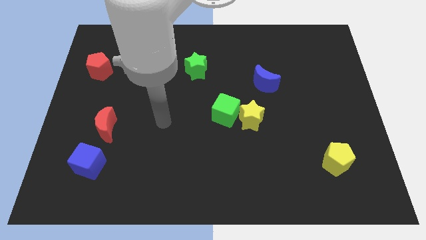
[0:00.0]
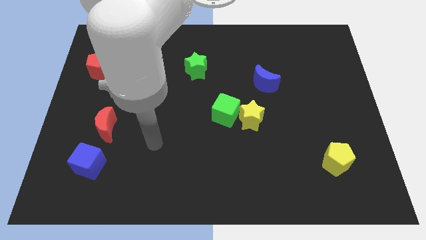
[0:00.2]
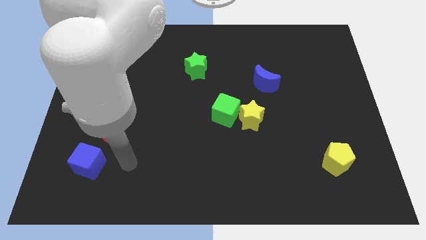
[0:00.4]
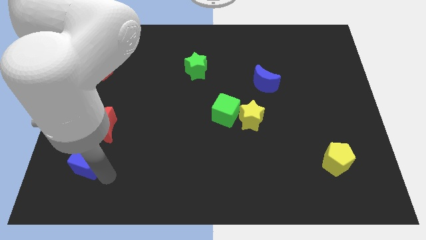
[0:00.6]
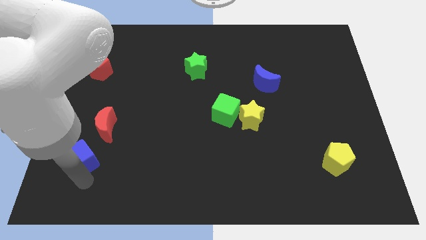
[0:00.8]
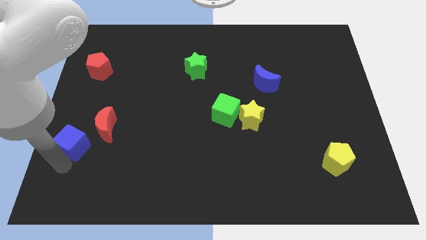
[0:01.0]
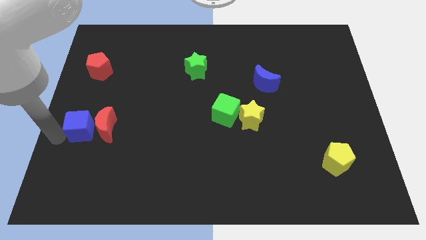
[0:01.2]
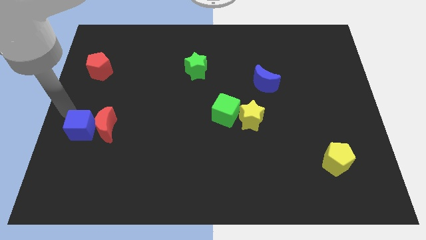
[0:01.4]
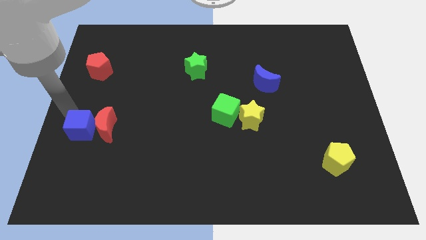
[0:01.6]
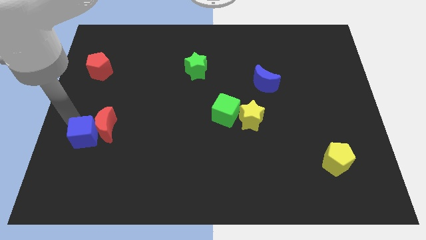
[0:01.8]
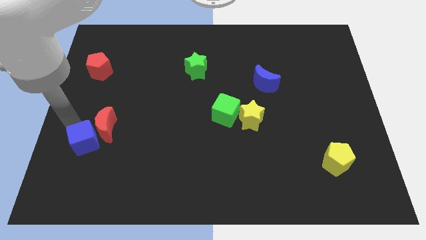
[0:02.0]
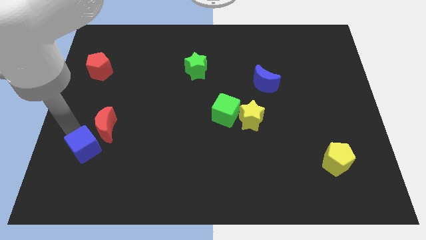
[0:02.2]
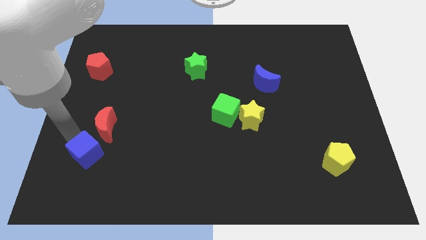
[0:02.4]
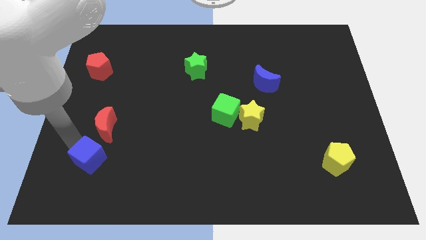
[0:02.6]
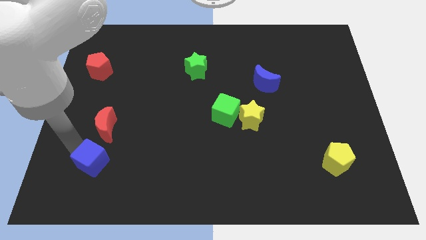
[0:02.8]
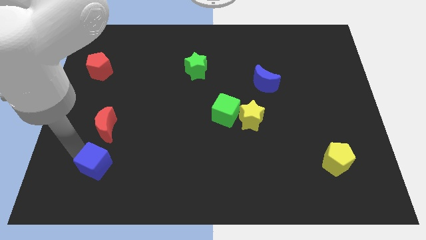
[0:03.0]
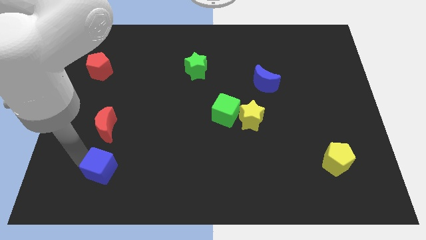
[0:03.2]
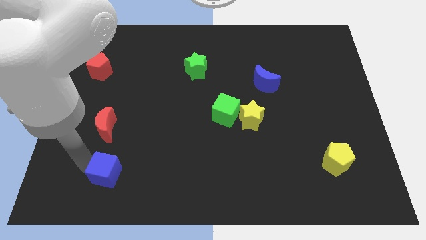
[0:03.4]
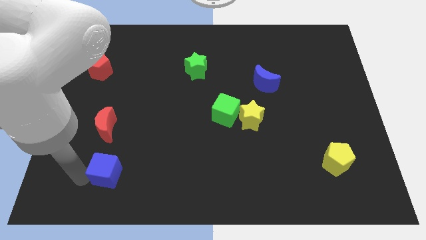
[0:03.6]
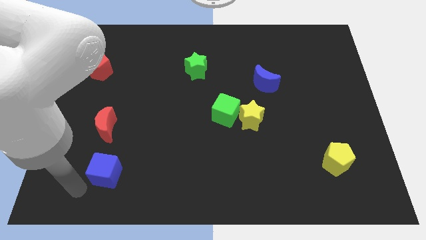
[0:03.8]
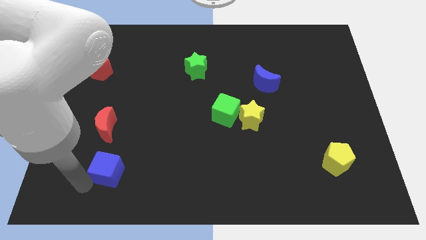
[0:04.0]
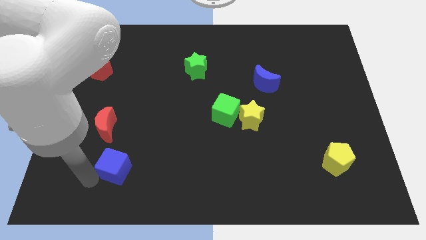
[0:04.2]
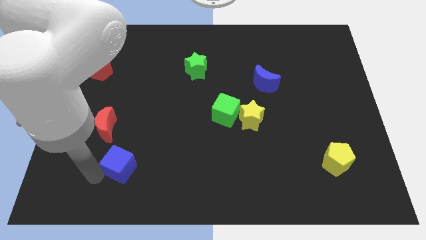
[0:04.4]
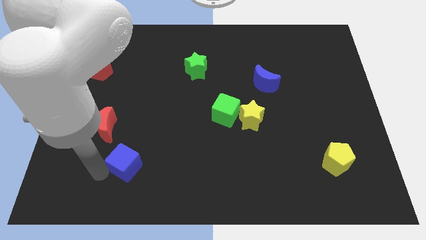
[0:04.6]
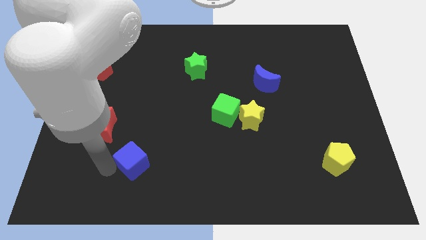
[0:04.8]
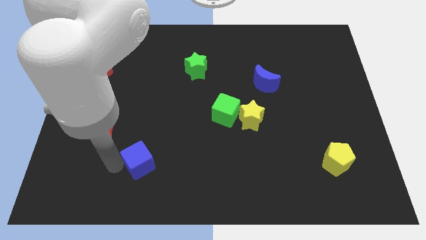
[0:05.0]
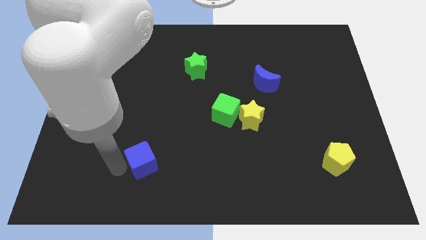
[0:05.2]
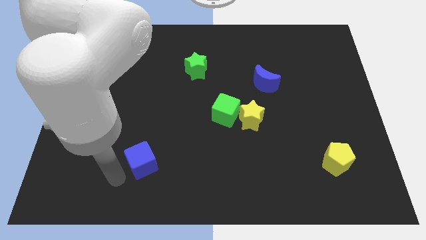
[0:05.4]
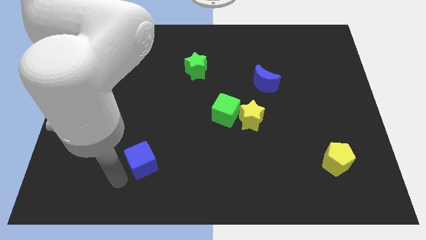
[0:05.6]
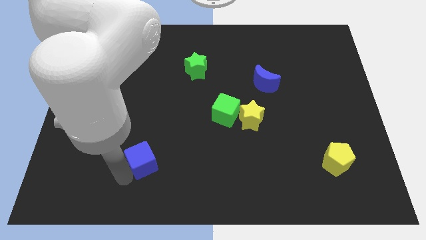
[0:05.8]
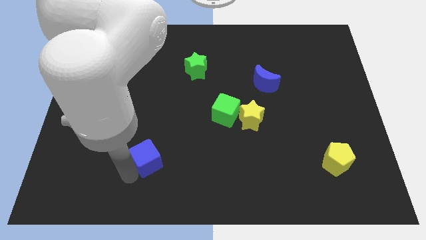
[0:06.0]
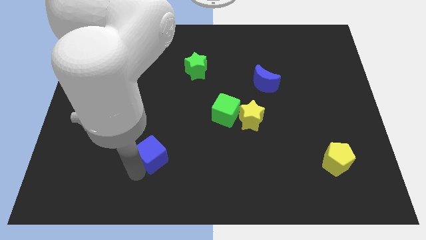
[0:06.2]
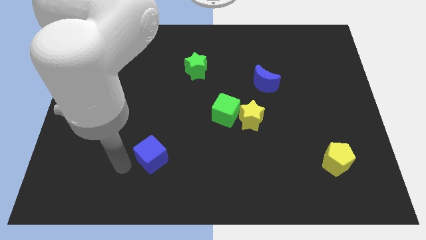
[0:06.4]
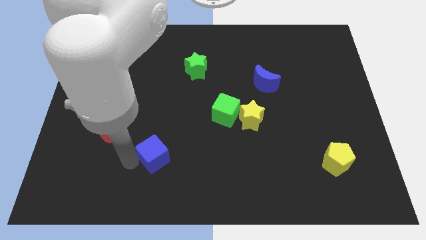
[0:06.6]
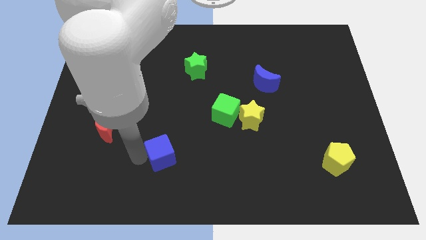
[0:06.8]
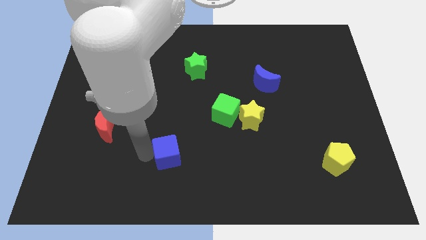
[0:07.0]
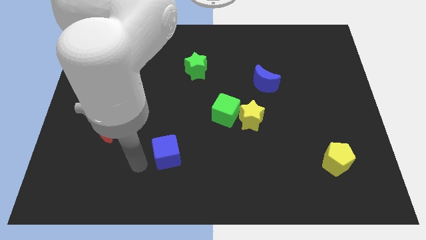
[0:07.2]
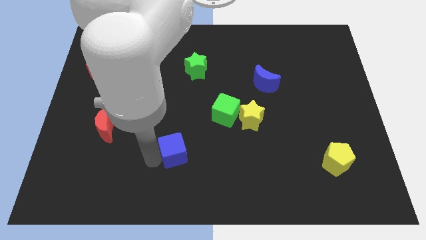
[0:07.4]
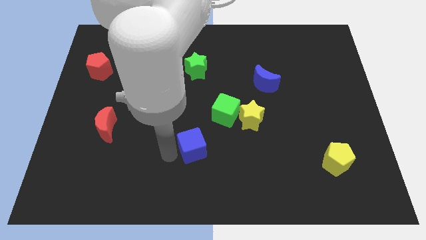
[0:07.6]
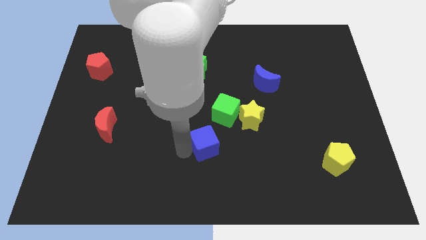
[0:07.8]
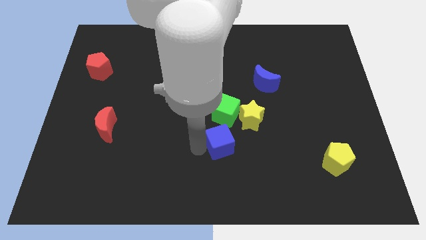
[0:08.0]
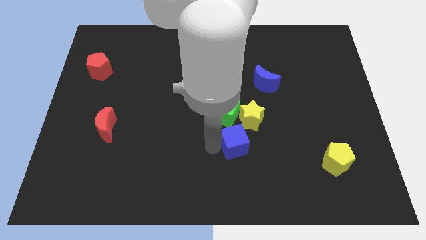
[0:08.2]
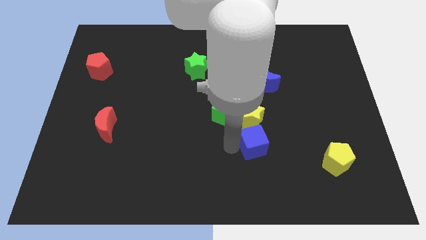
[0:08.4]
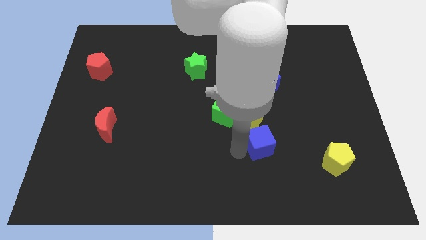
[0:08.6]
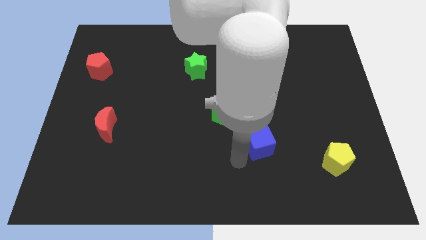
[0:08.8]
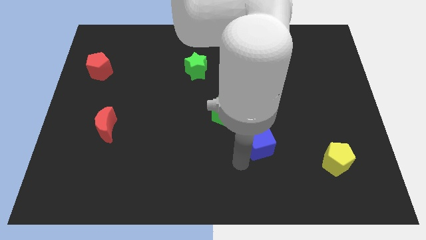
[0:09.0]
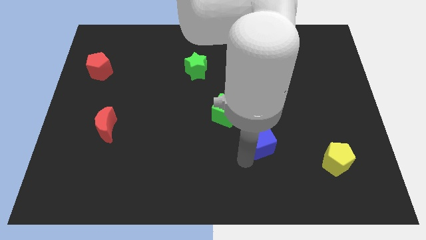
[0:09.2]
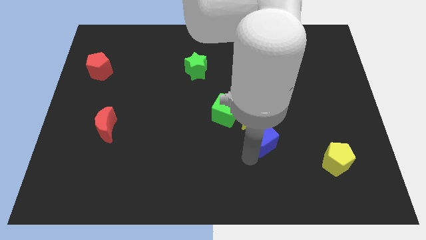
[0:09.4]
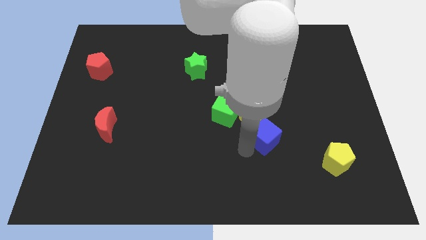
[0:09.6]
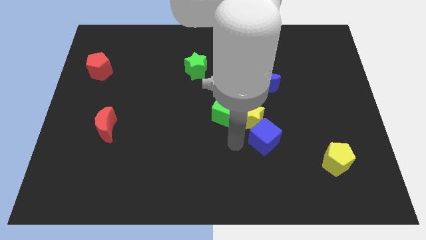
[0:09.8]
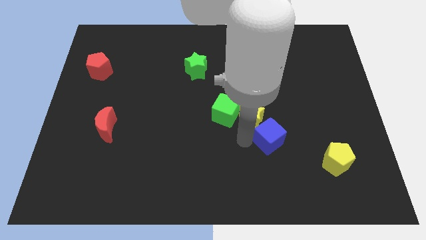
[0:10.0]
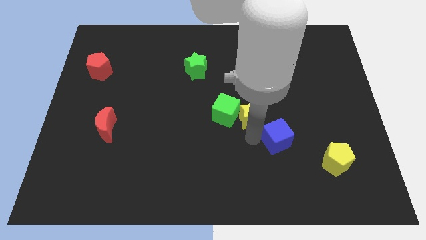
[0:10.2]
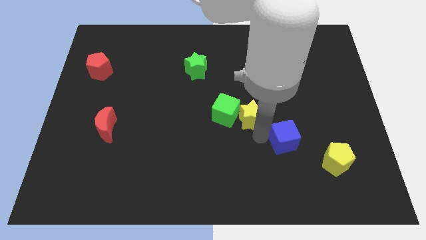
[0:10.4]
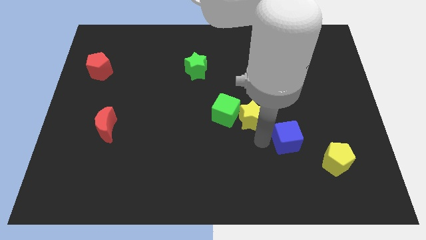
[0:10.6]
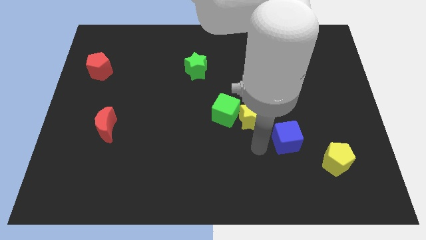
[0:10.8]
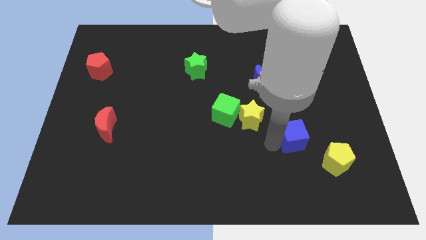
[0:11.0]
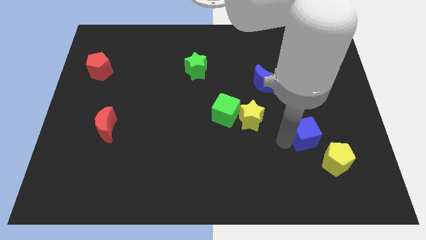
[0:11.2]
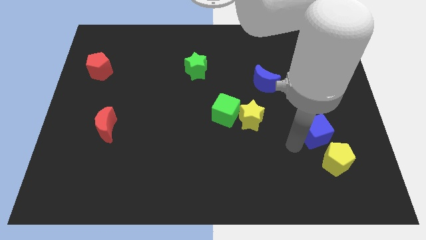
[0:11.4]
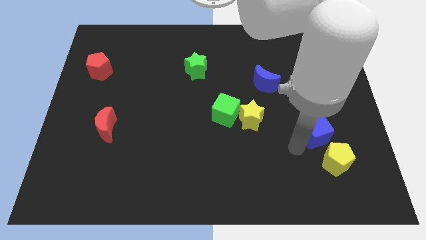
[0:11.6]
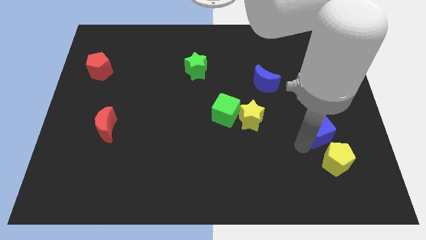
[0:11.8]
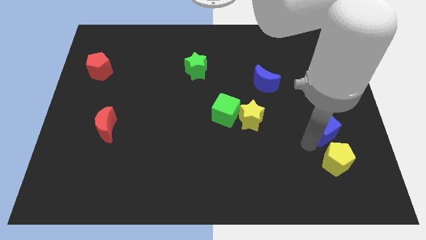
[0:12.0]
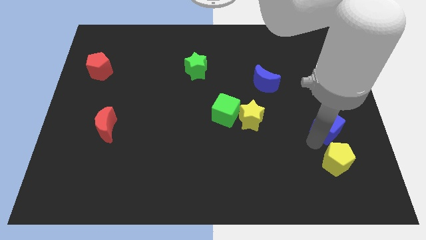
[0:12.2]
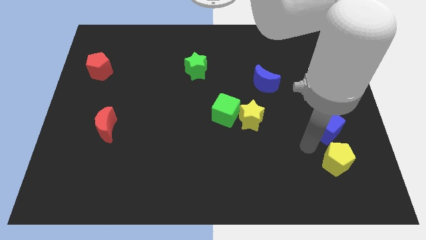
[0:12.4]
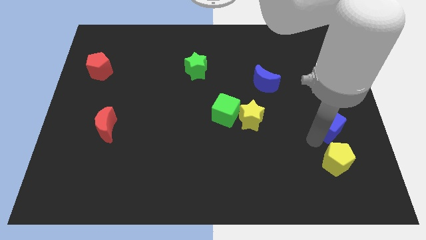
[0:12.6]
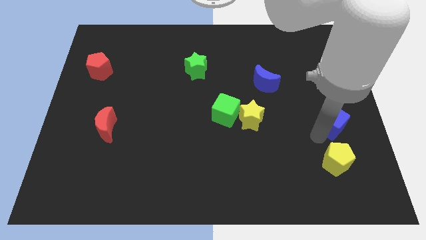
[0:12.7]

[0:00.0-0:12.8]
slide the blue cube to the right side
